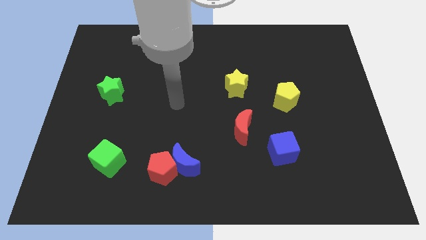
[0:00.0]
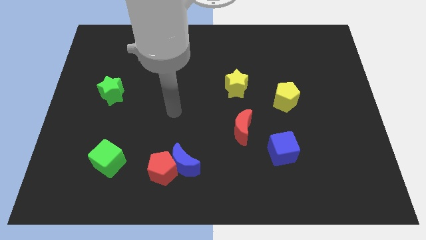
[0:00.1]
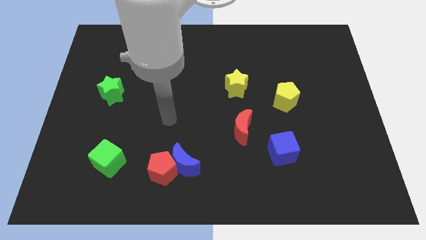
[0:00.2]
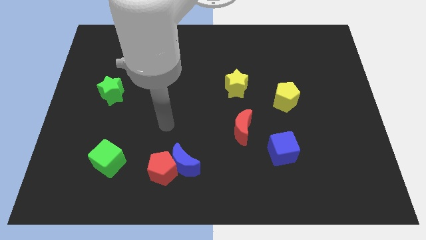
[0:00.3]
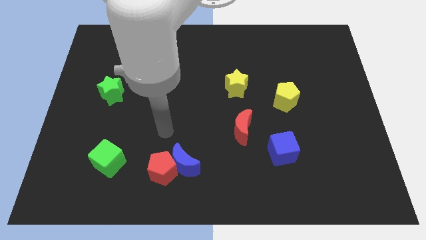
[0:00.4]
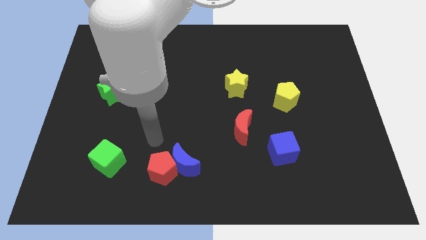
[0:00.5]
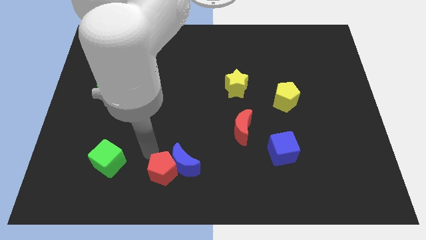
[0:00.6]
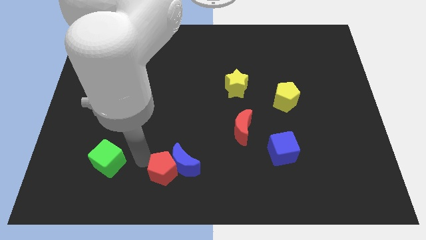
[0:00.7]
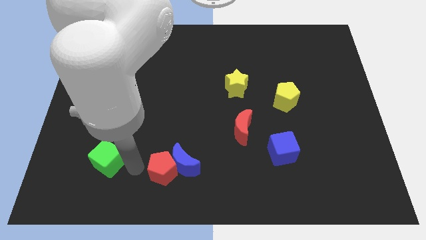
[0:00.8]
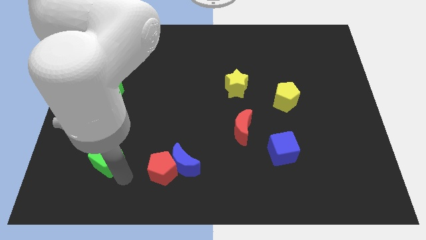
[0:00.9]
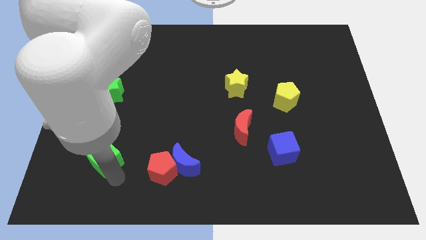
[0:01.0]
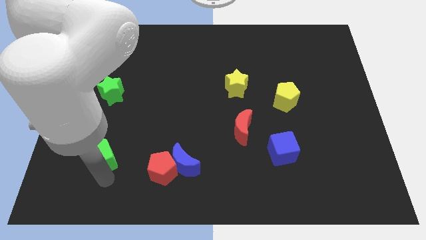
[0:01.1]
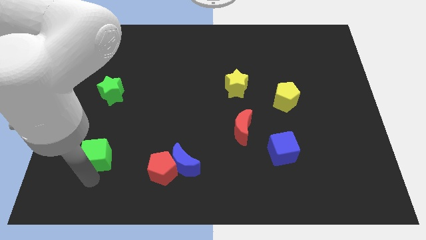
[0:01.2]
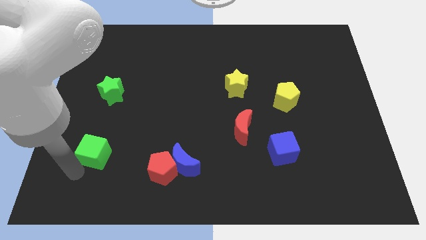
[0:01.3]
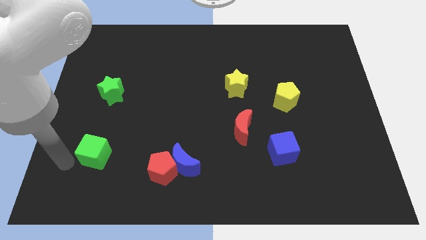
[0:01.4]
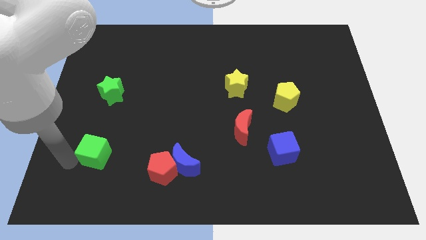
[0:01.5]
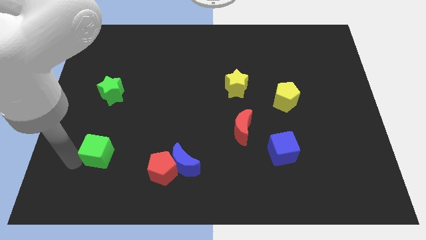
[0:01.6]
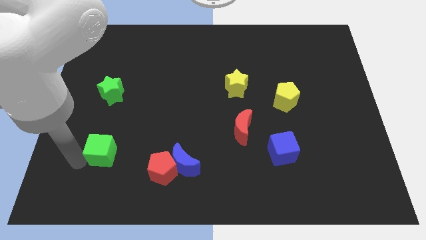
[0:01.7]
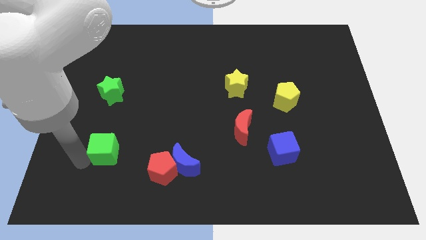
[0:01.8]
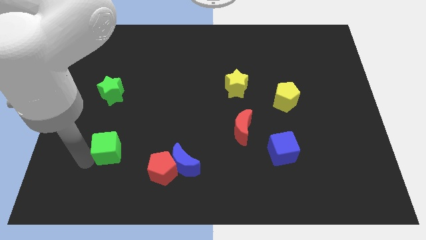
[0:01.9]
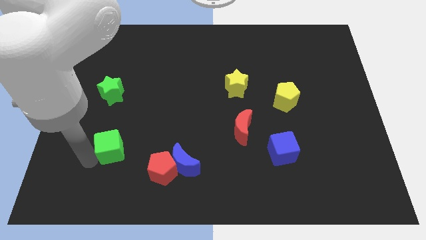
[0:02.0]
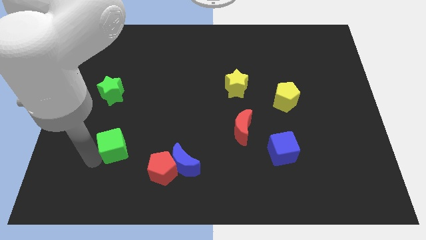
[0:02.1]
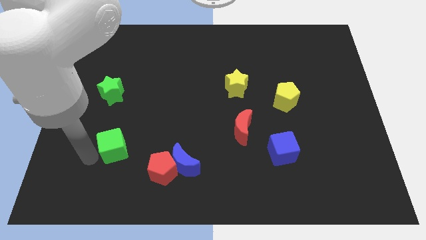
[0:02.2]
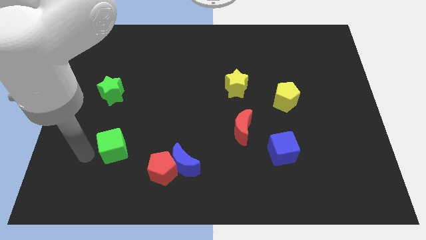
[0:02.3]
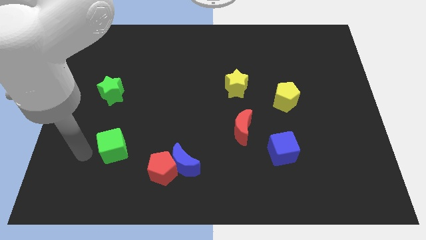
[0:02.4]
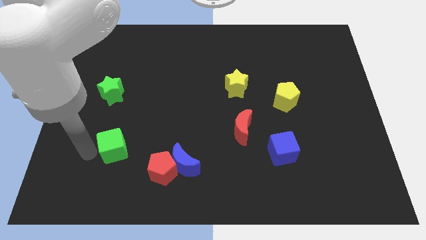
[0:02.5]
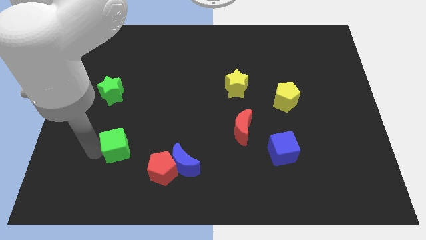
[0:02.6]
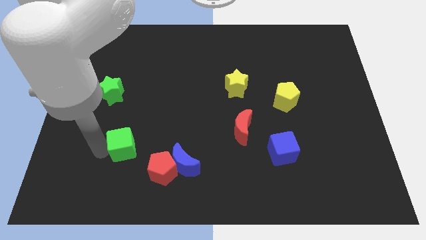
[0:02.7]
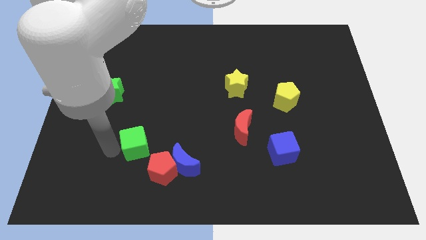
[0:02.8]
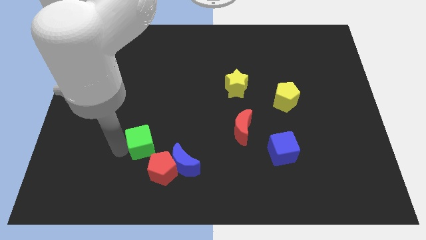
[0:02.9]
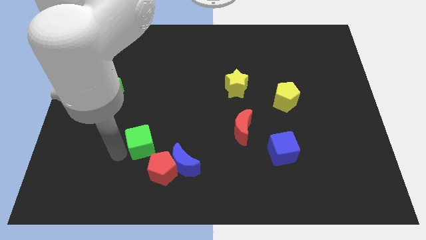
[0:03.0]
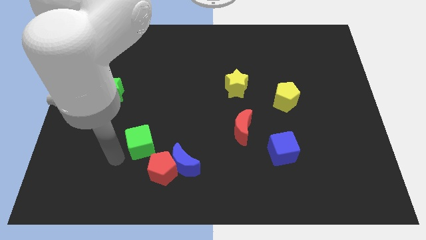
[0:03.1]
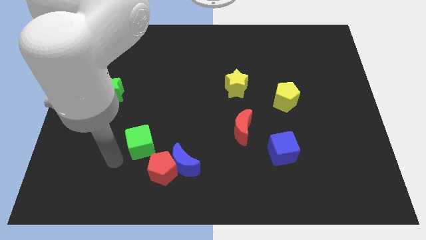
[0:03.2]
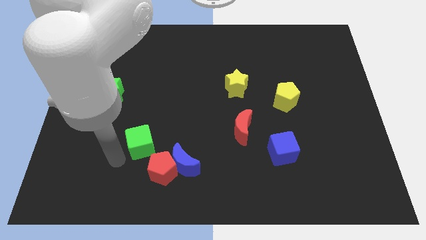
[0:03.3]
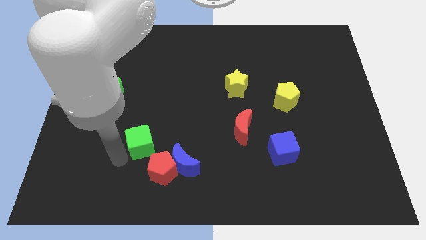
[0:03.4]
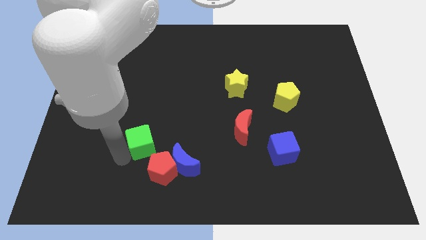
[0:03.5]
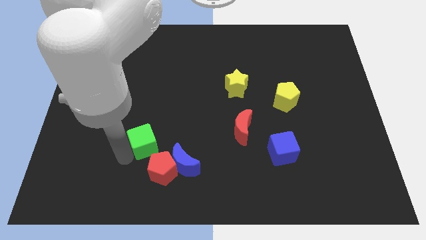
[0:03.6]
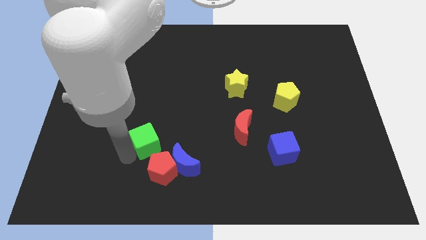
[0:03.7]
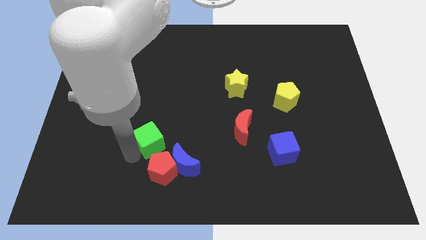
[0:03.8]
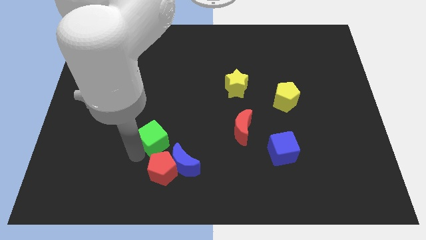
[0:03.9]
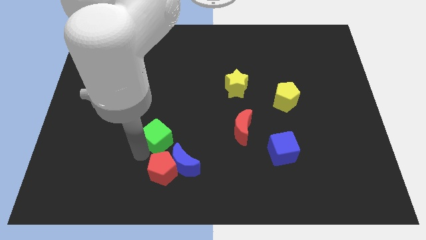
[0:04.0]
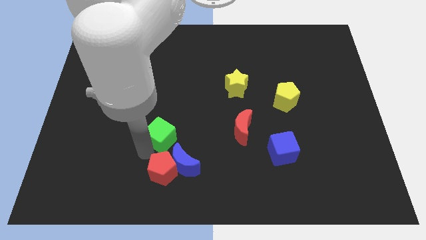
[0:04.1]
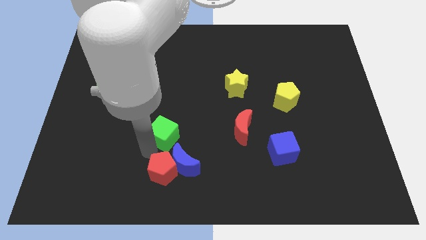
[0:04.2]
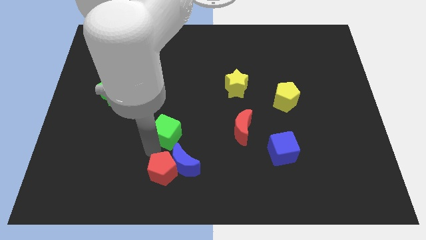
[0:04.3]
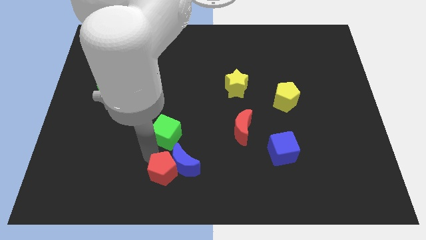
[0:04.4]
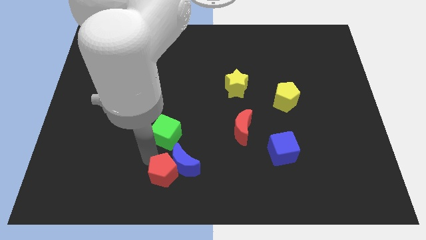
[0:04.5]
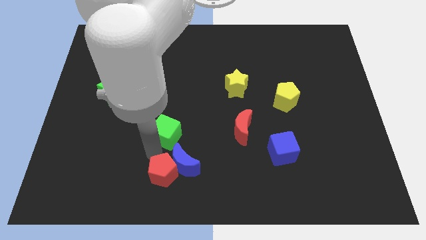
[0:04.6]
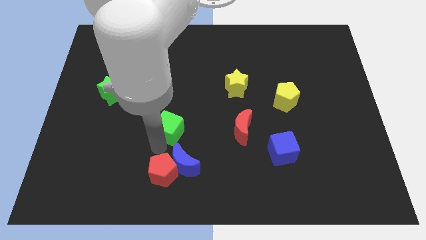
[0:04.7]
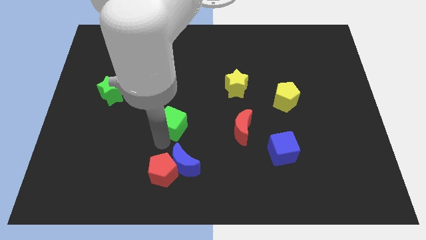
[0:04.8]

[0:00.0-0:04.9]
put the green cube to the middle of the board

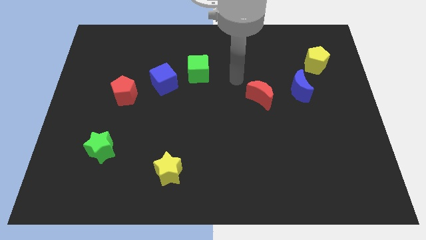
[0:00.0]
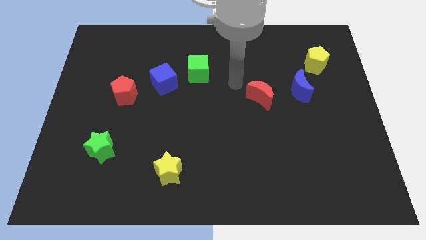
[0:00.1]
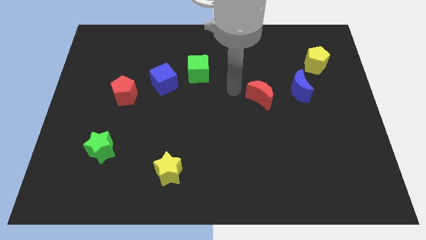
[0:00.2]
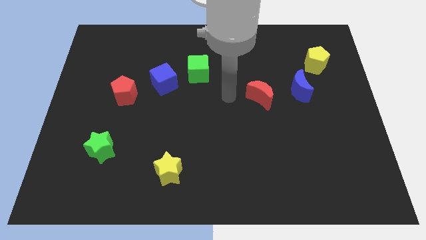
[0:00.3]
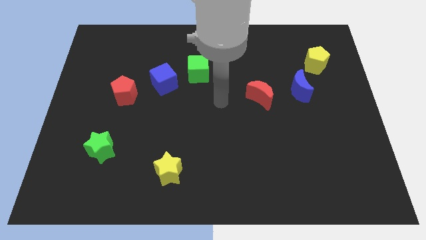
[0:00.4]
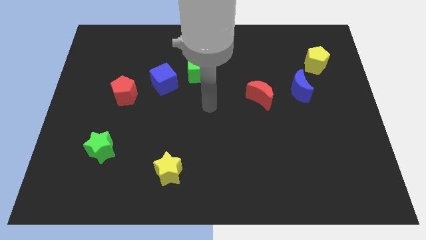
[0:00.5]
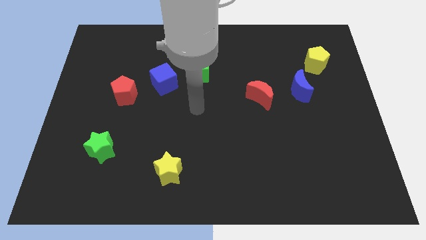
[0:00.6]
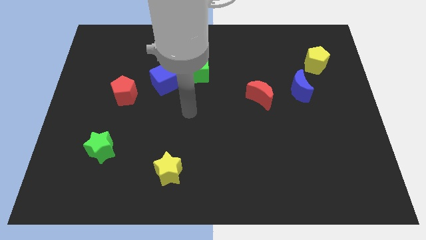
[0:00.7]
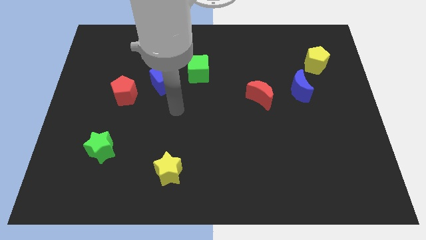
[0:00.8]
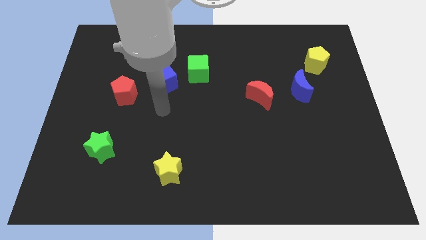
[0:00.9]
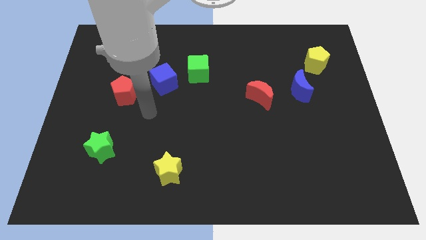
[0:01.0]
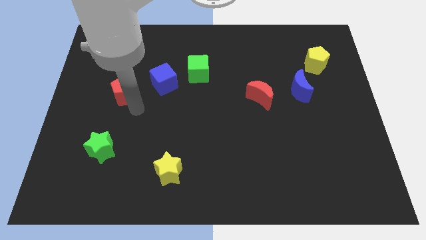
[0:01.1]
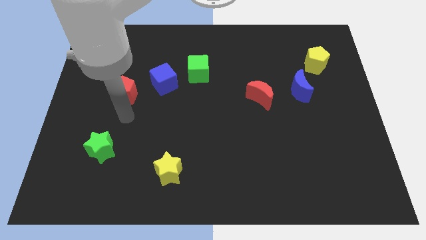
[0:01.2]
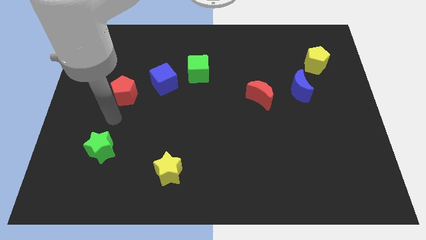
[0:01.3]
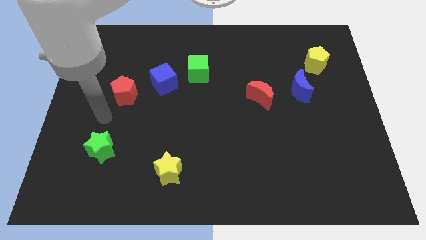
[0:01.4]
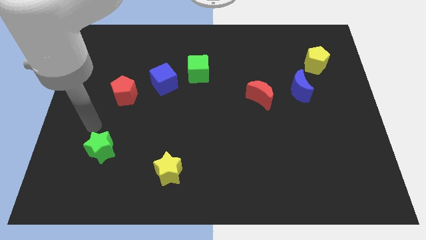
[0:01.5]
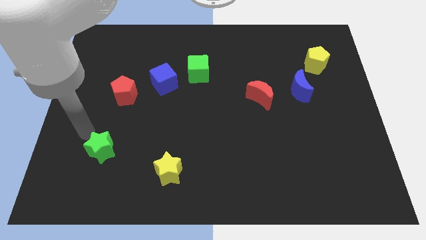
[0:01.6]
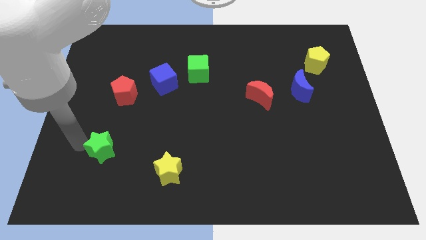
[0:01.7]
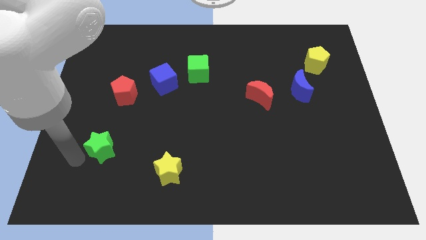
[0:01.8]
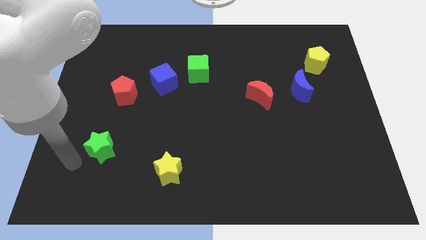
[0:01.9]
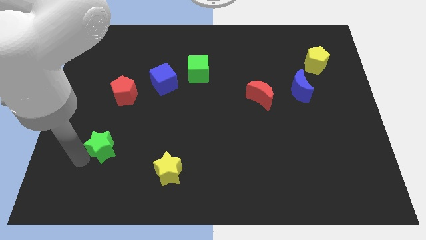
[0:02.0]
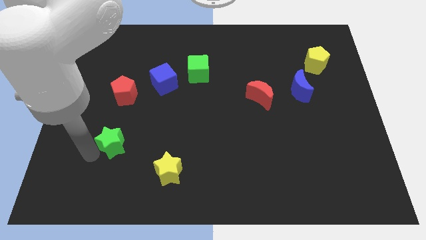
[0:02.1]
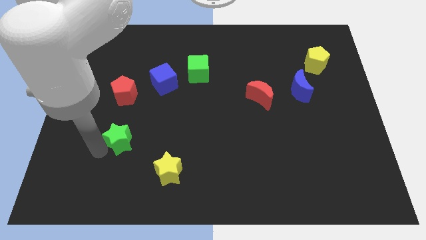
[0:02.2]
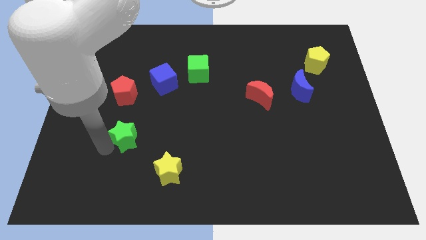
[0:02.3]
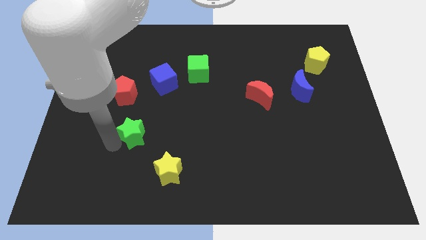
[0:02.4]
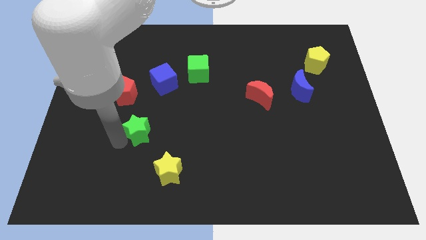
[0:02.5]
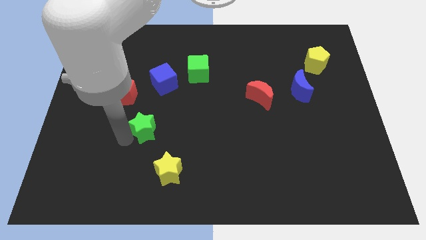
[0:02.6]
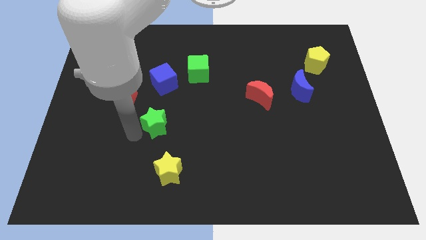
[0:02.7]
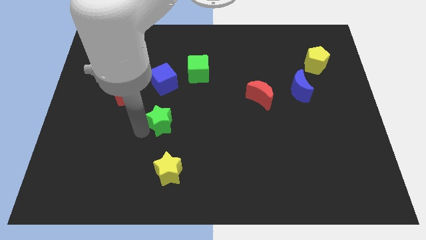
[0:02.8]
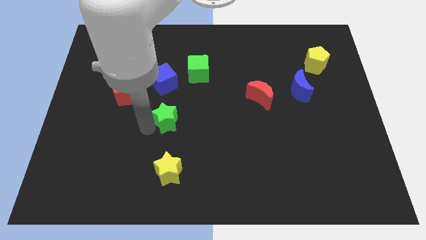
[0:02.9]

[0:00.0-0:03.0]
put the green star to the middle of the board
